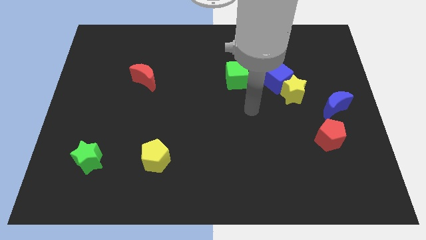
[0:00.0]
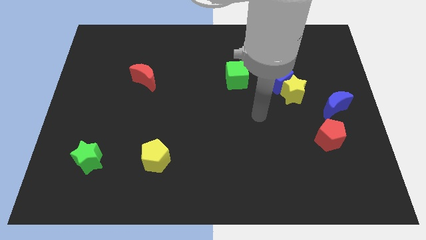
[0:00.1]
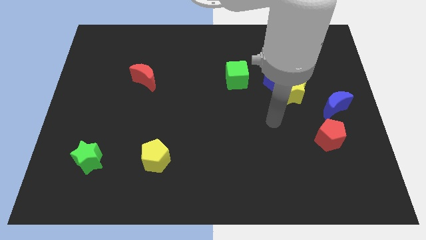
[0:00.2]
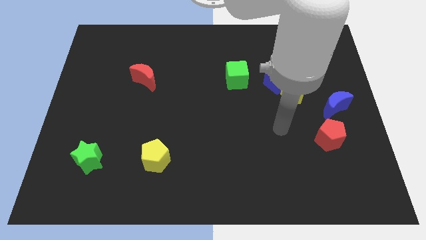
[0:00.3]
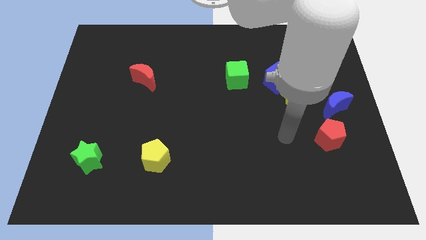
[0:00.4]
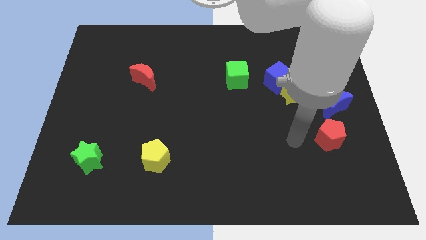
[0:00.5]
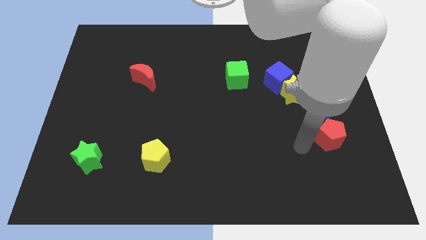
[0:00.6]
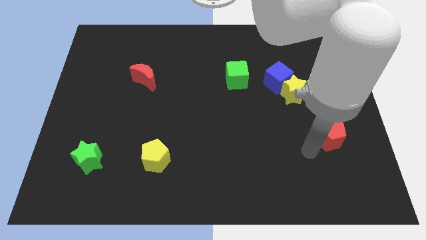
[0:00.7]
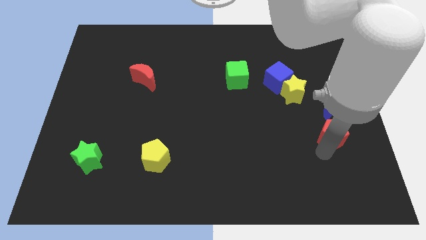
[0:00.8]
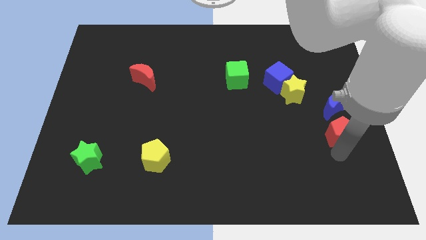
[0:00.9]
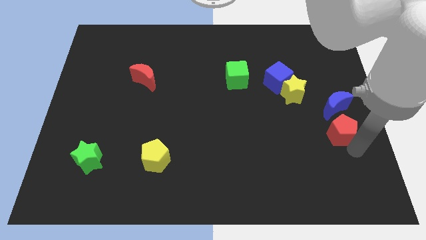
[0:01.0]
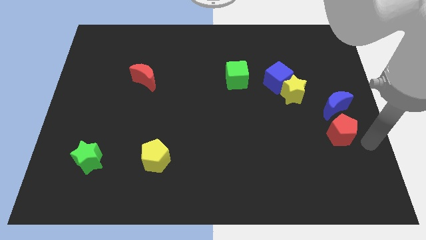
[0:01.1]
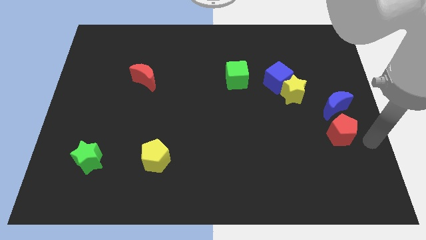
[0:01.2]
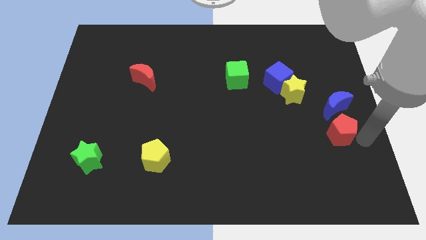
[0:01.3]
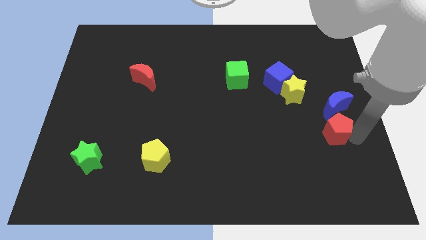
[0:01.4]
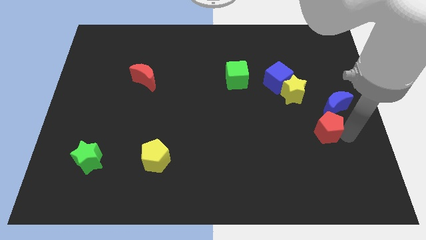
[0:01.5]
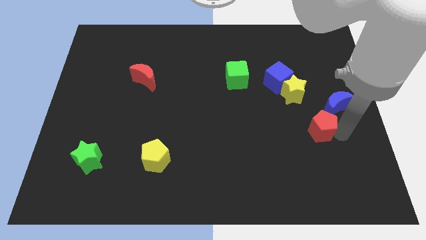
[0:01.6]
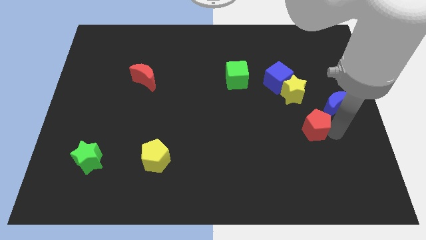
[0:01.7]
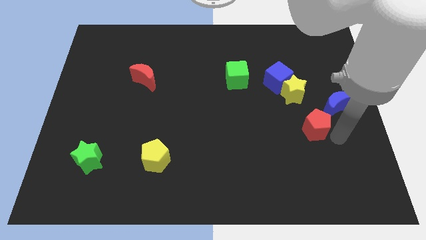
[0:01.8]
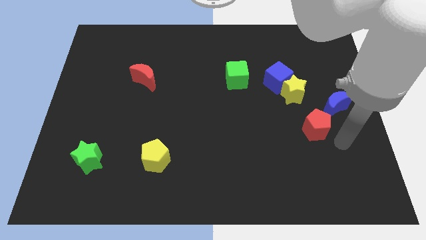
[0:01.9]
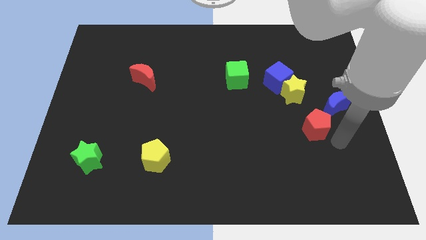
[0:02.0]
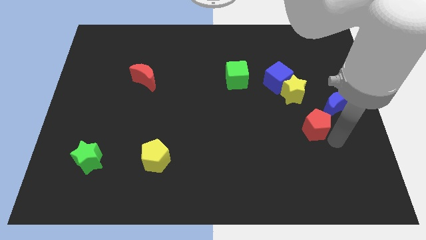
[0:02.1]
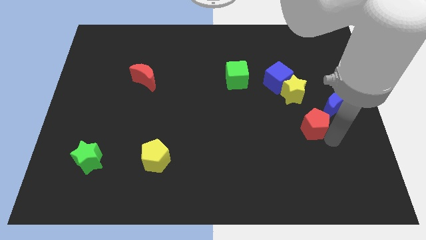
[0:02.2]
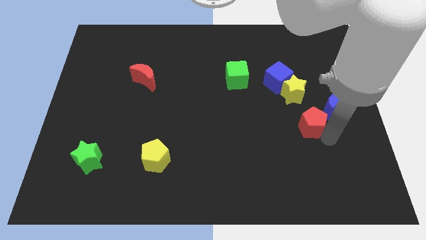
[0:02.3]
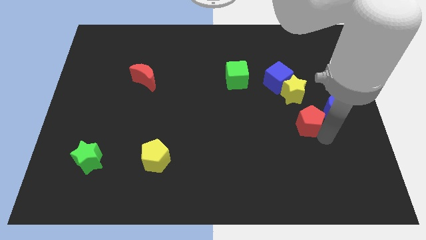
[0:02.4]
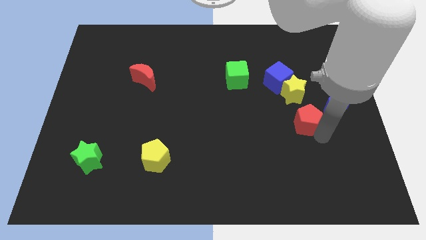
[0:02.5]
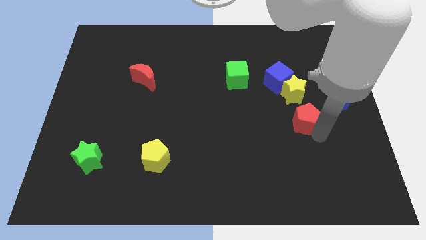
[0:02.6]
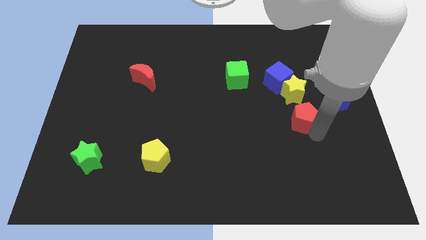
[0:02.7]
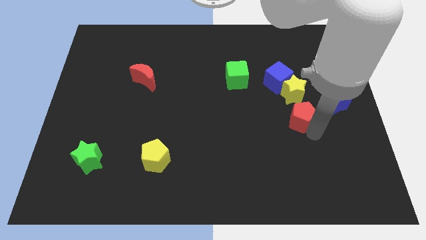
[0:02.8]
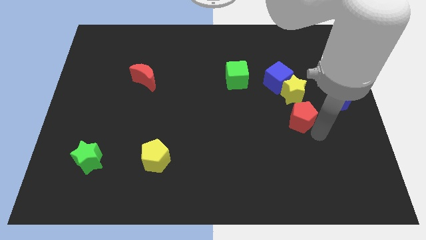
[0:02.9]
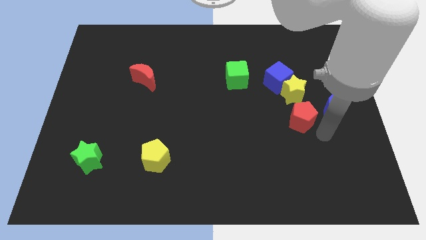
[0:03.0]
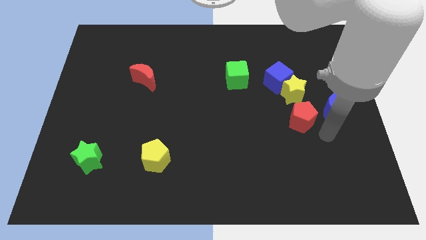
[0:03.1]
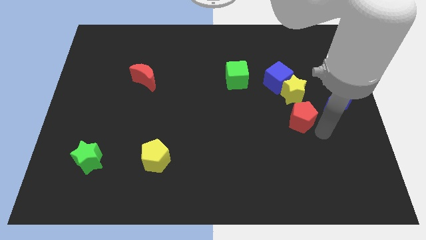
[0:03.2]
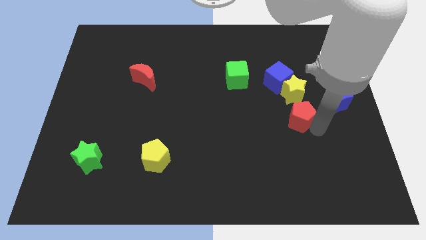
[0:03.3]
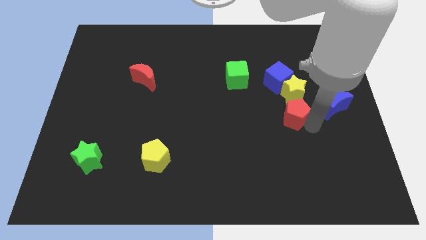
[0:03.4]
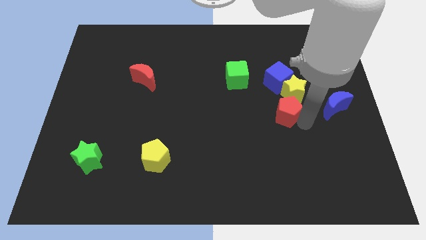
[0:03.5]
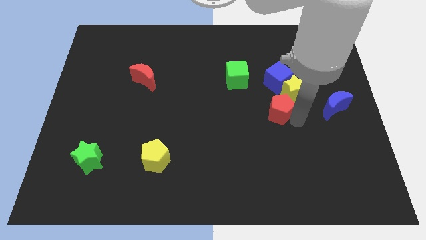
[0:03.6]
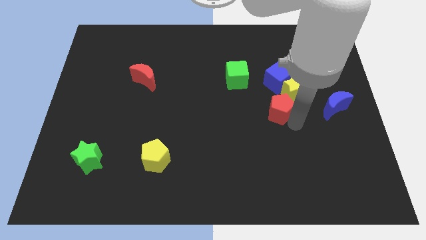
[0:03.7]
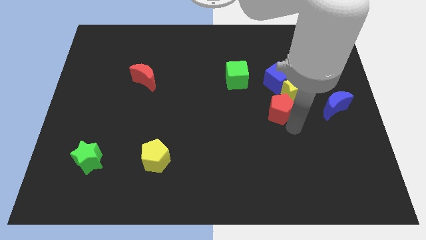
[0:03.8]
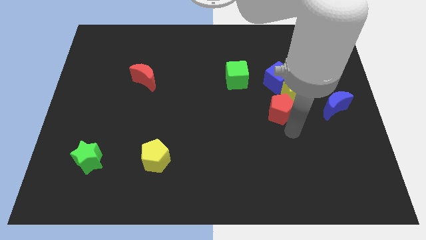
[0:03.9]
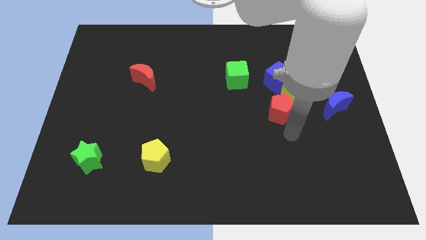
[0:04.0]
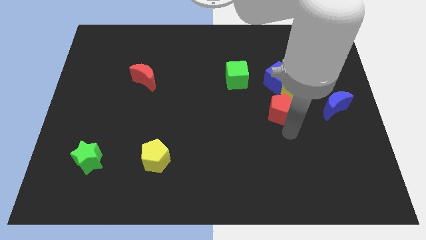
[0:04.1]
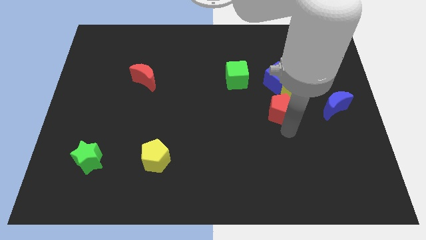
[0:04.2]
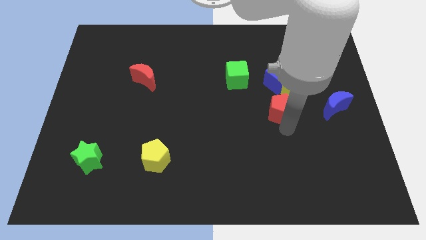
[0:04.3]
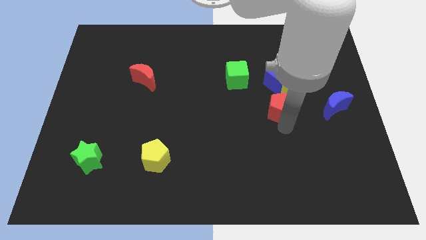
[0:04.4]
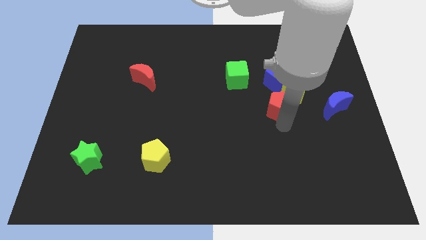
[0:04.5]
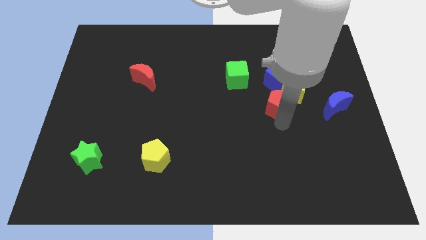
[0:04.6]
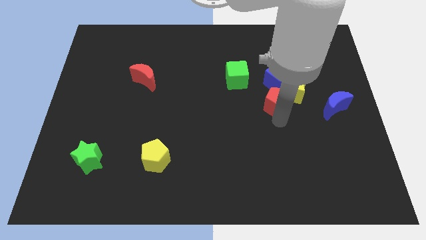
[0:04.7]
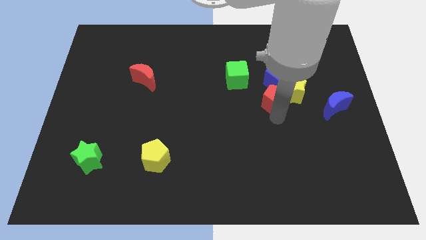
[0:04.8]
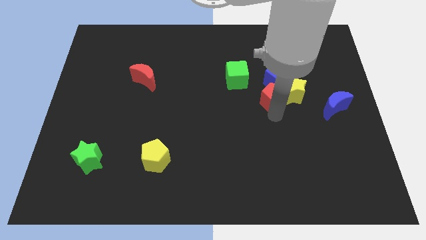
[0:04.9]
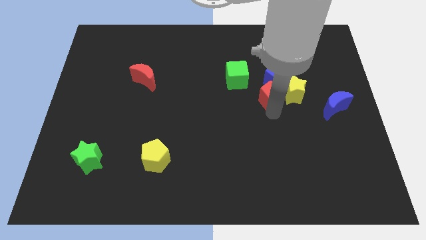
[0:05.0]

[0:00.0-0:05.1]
move the red pentagon next to the blue cube

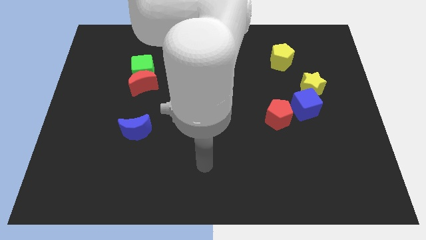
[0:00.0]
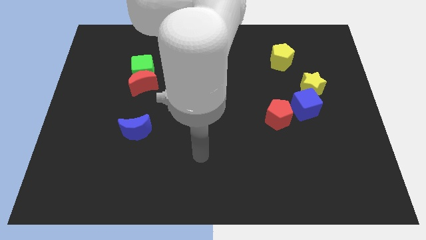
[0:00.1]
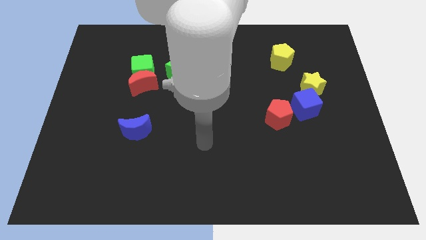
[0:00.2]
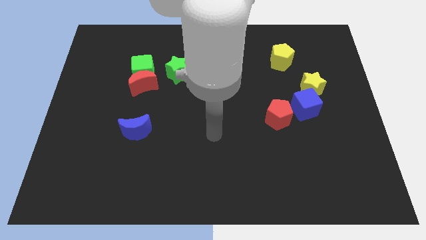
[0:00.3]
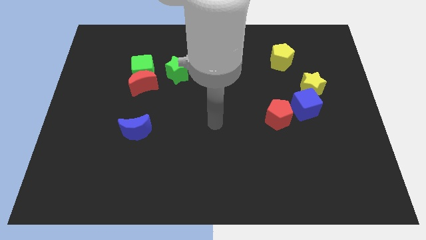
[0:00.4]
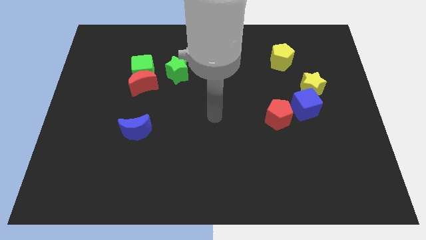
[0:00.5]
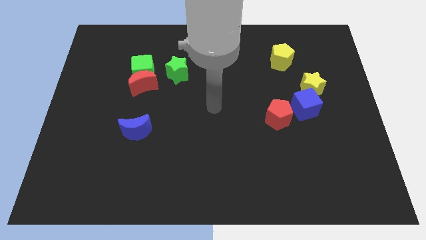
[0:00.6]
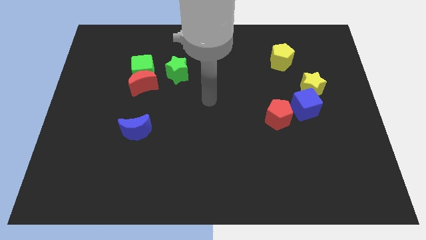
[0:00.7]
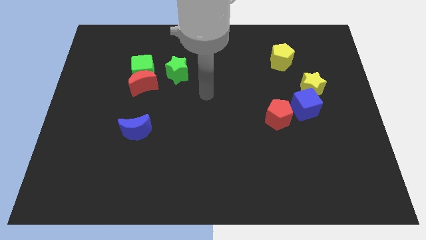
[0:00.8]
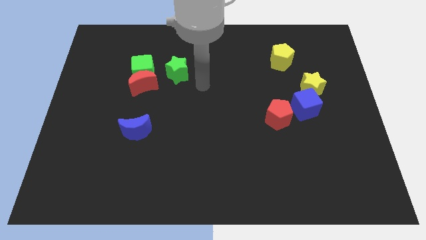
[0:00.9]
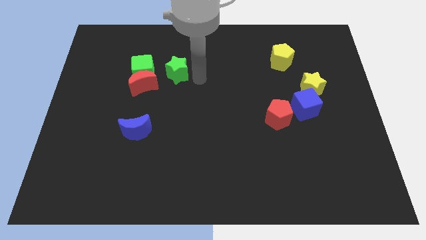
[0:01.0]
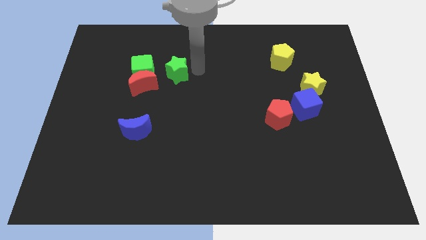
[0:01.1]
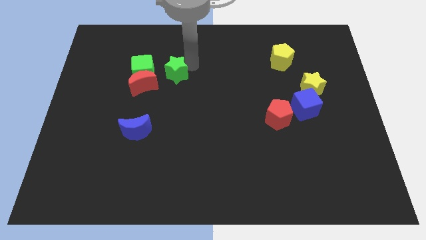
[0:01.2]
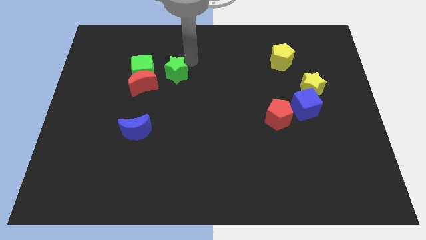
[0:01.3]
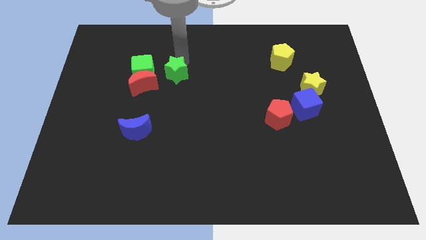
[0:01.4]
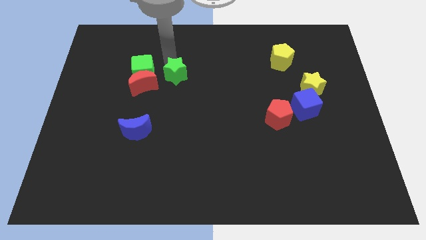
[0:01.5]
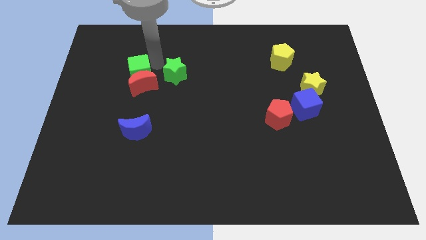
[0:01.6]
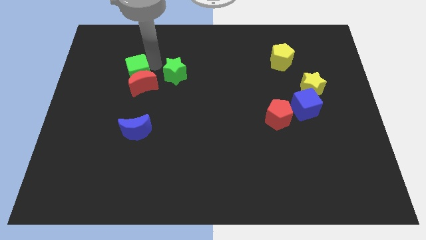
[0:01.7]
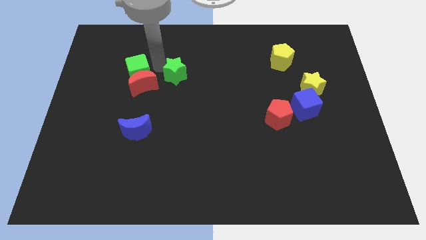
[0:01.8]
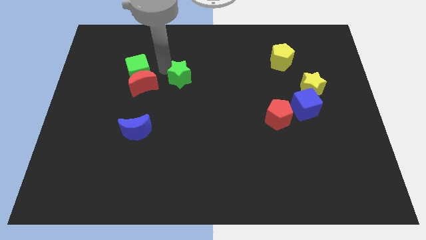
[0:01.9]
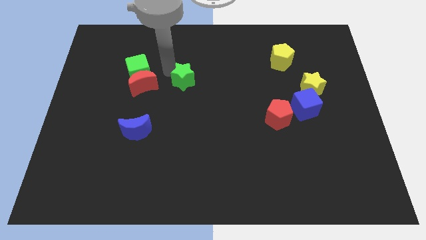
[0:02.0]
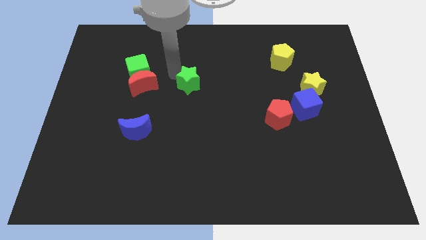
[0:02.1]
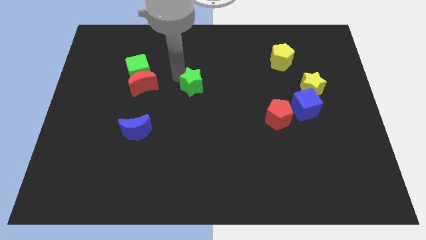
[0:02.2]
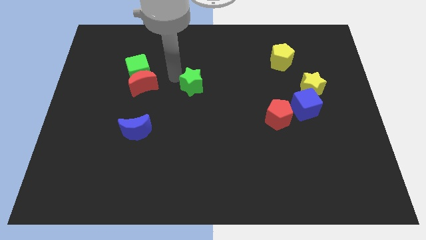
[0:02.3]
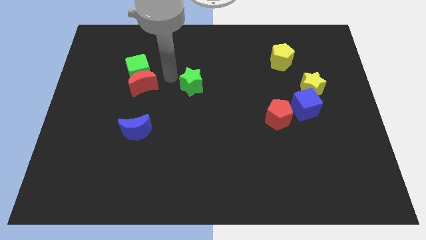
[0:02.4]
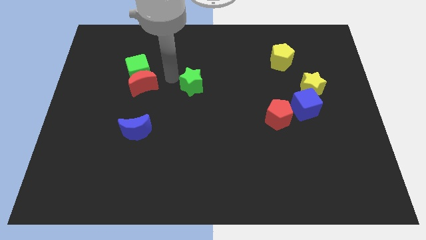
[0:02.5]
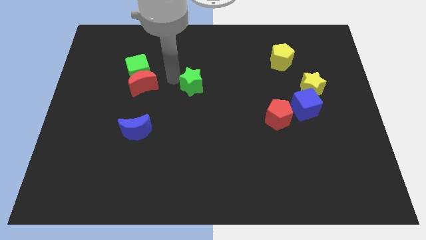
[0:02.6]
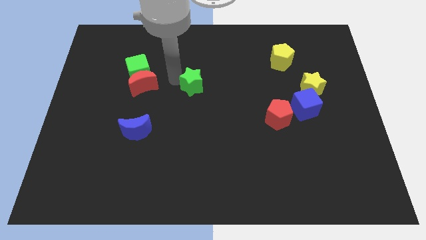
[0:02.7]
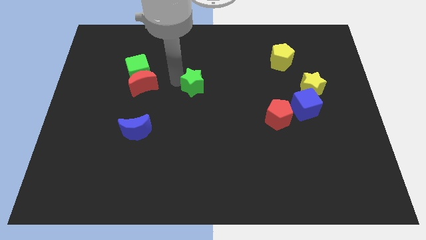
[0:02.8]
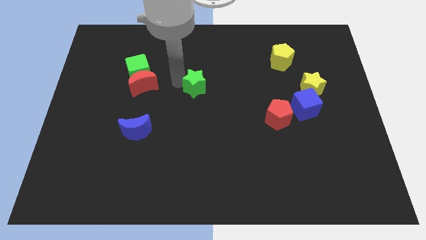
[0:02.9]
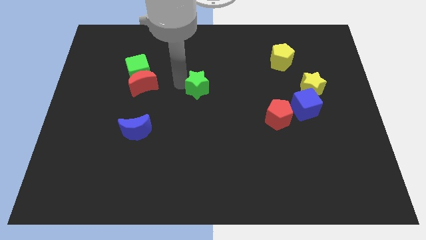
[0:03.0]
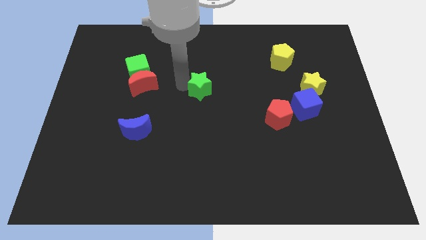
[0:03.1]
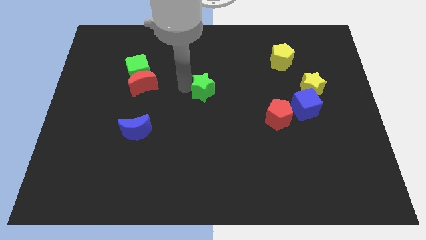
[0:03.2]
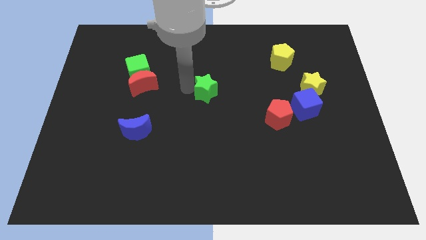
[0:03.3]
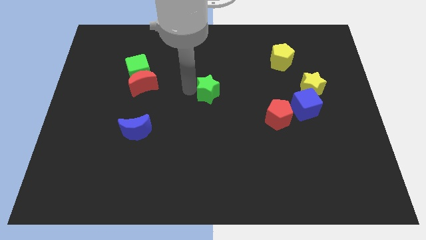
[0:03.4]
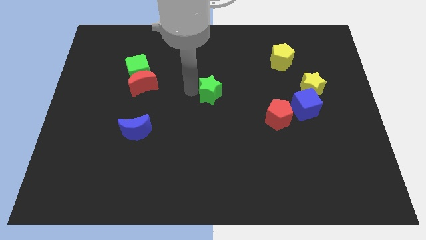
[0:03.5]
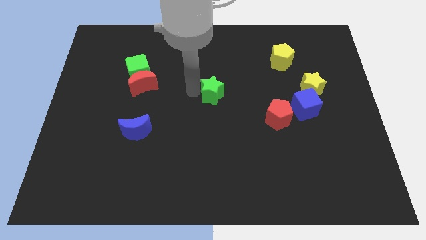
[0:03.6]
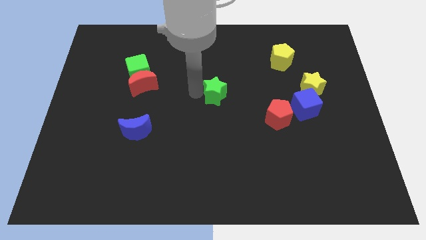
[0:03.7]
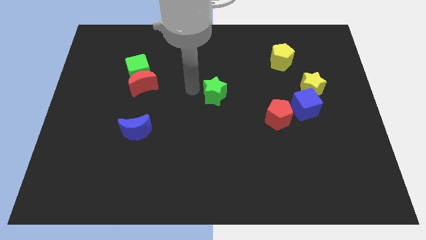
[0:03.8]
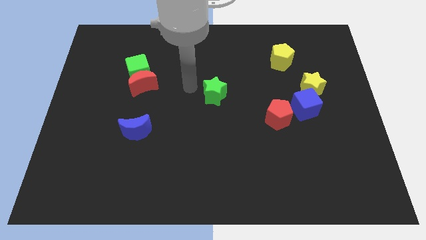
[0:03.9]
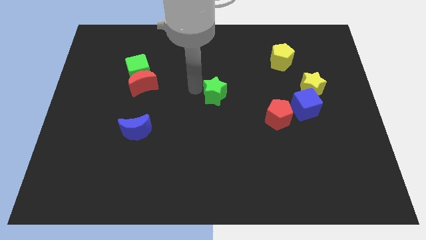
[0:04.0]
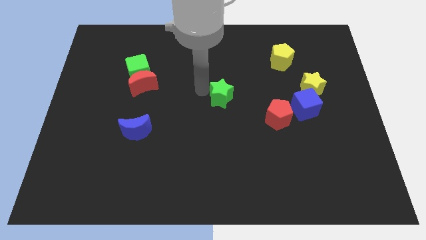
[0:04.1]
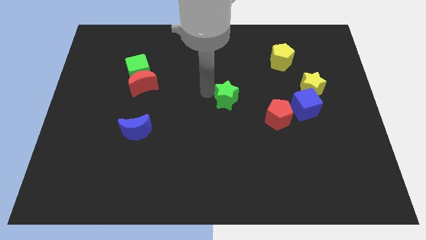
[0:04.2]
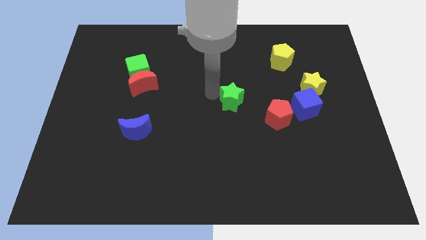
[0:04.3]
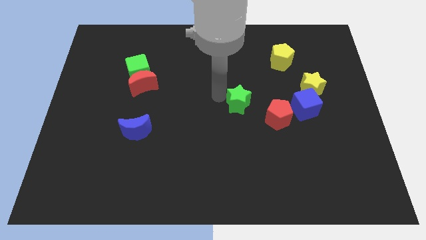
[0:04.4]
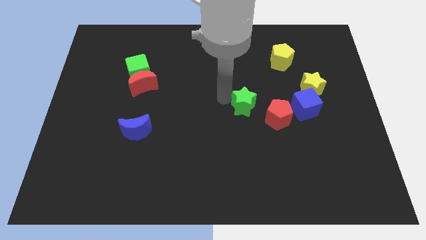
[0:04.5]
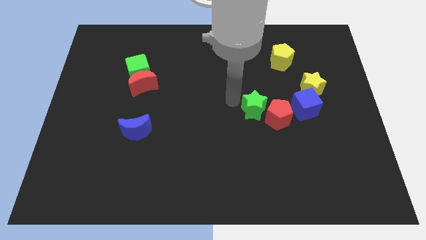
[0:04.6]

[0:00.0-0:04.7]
slide the green star towards the red pentagon
